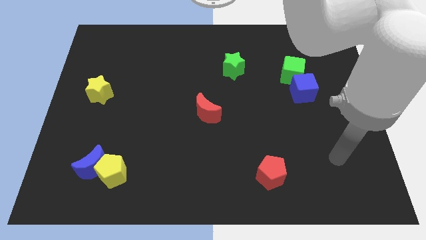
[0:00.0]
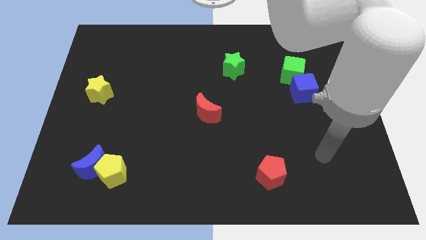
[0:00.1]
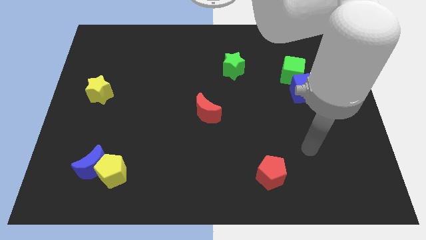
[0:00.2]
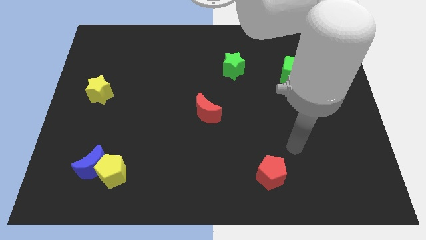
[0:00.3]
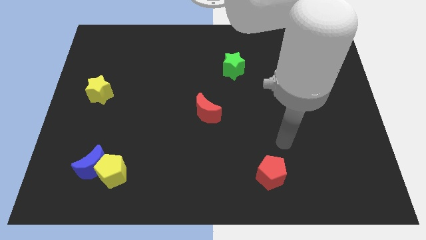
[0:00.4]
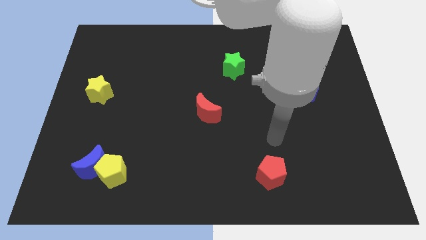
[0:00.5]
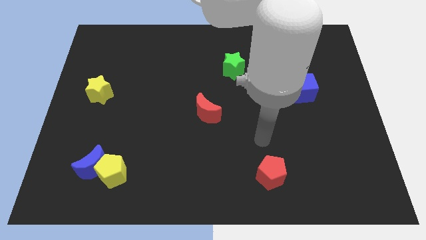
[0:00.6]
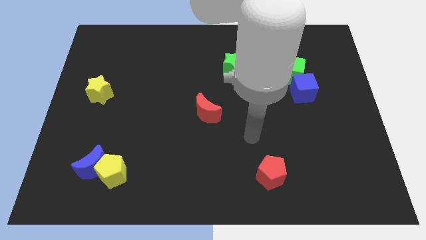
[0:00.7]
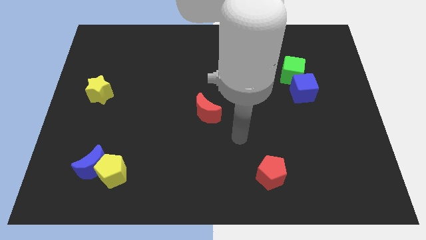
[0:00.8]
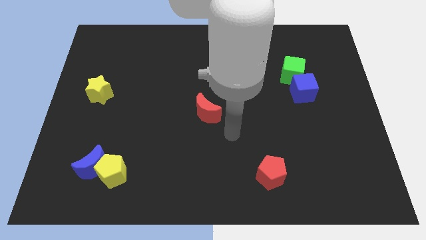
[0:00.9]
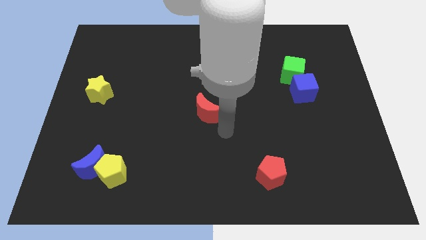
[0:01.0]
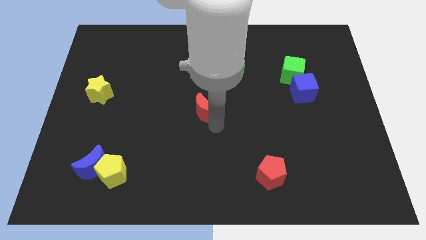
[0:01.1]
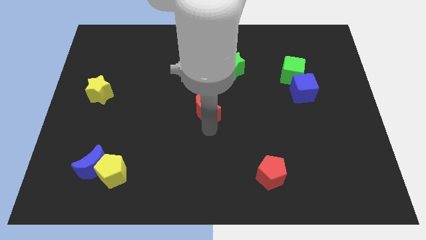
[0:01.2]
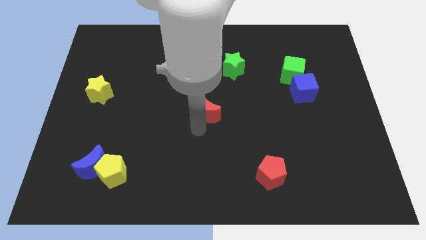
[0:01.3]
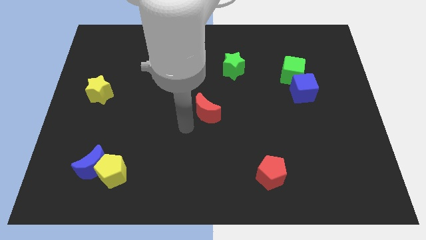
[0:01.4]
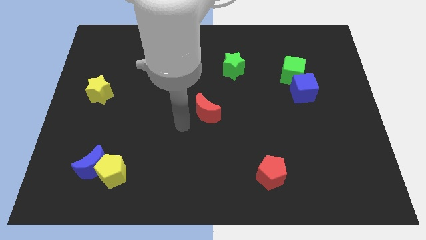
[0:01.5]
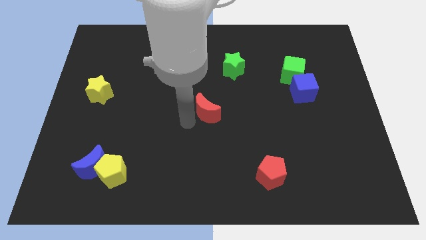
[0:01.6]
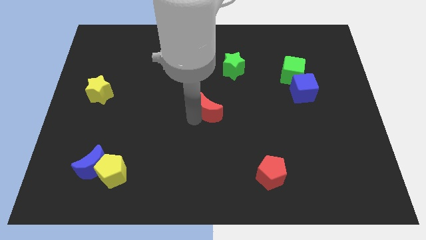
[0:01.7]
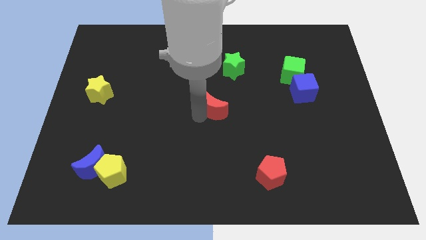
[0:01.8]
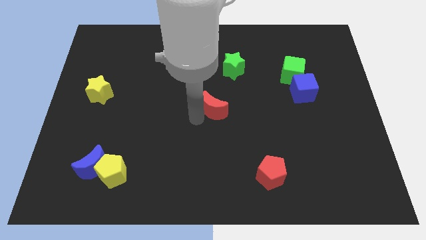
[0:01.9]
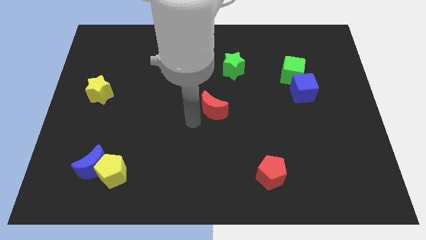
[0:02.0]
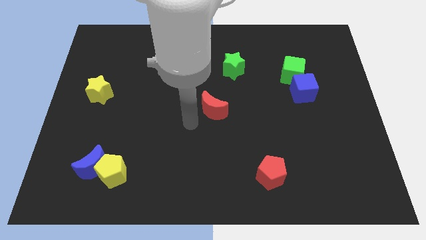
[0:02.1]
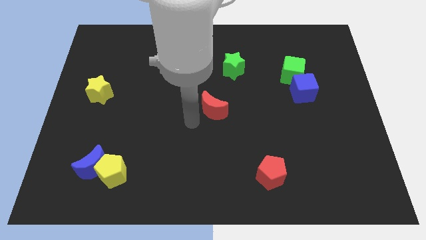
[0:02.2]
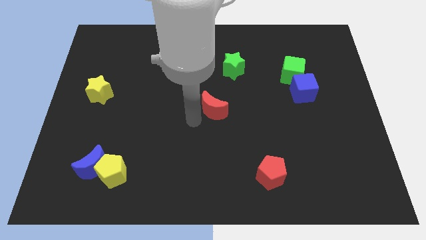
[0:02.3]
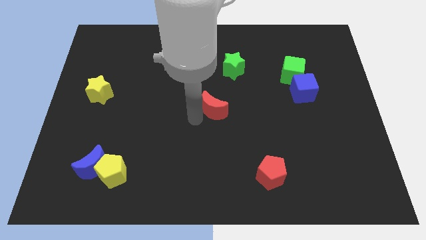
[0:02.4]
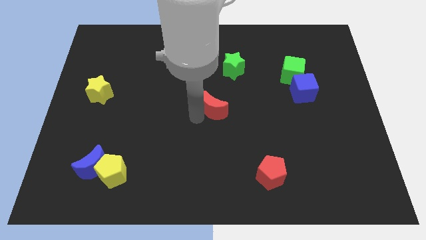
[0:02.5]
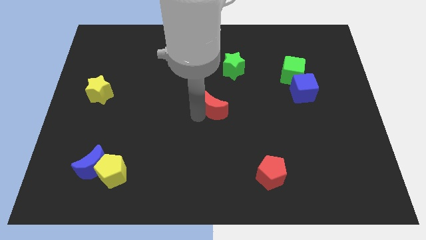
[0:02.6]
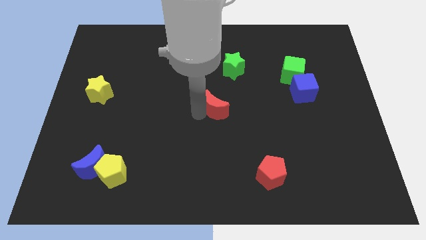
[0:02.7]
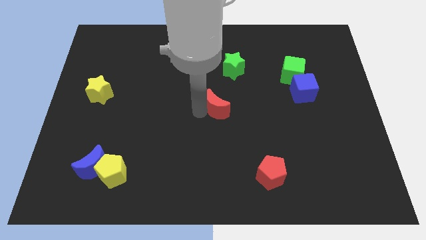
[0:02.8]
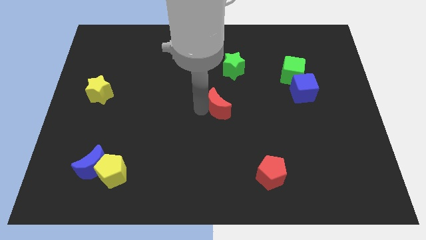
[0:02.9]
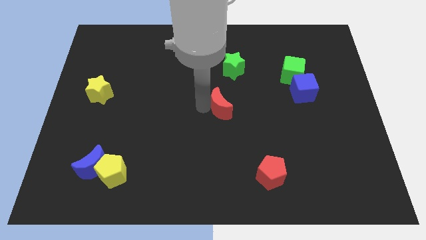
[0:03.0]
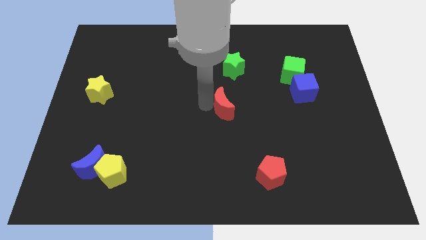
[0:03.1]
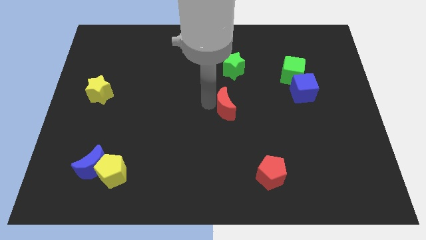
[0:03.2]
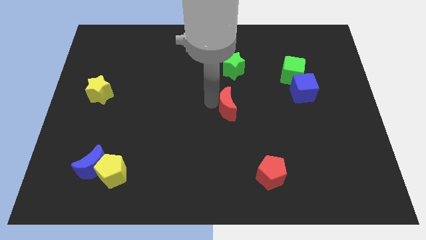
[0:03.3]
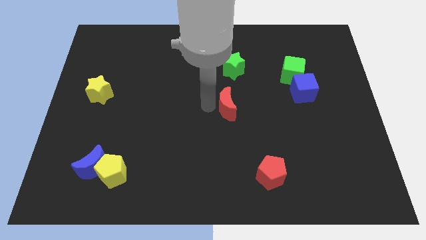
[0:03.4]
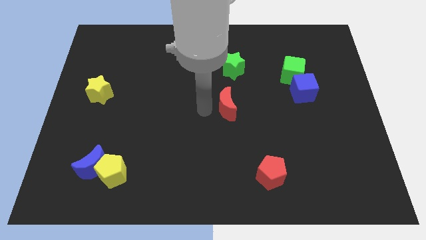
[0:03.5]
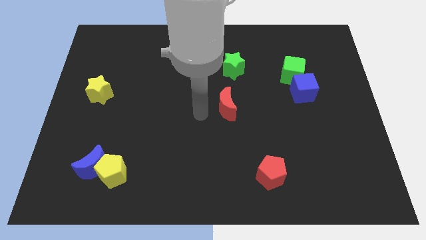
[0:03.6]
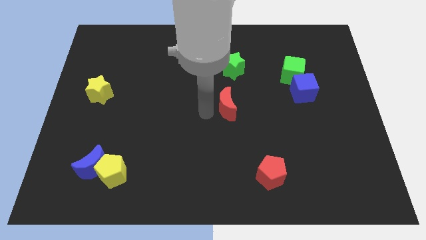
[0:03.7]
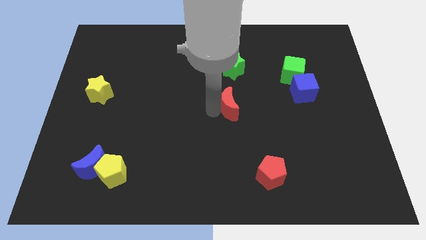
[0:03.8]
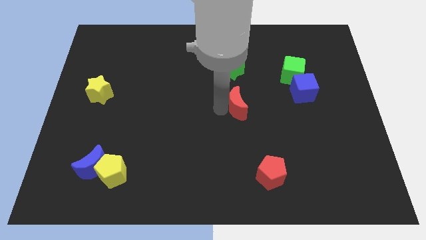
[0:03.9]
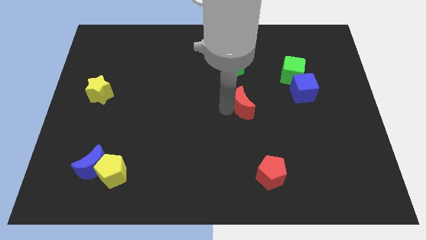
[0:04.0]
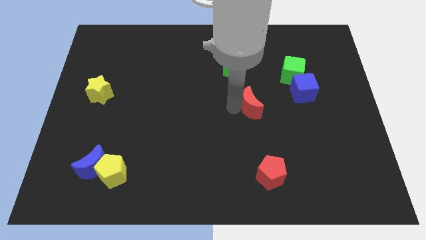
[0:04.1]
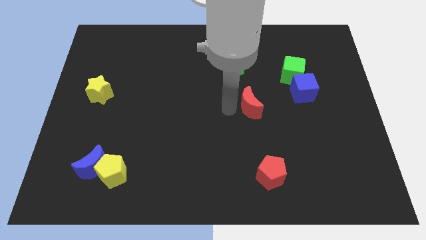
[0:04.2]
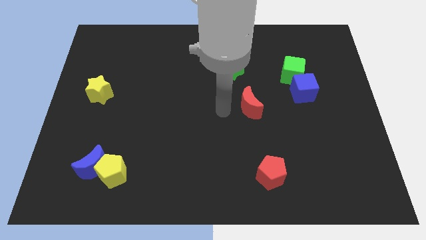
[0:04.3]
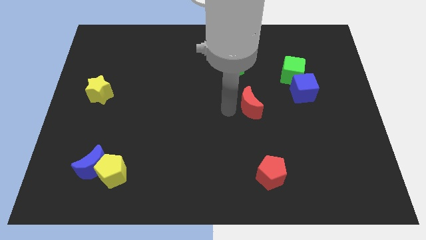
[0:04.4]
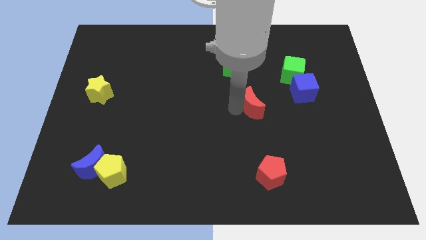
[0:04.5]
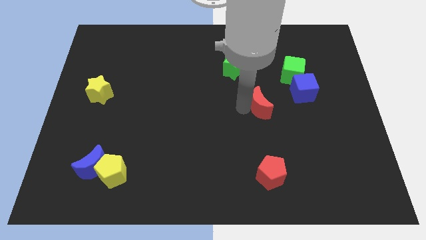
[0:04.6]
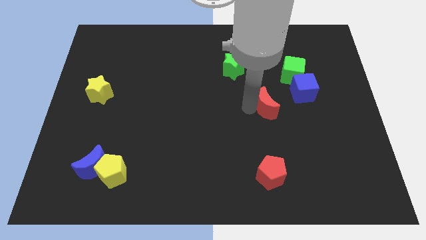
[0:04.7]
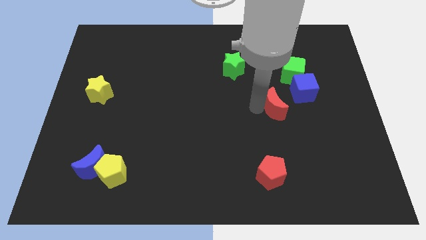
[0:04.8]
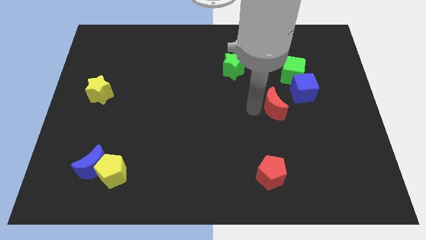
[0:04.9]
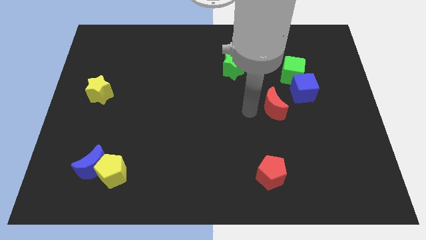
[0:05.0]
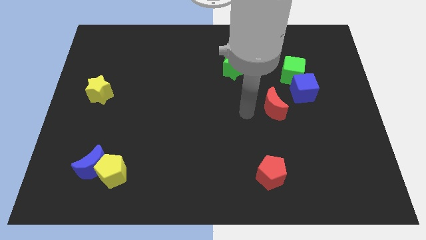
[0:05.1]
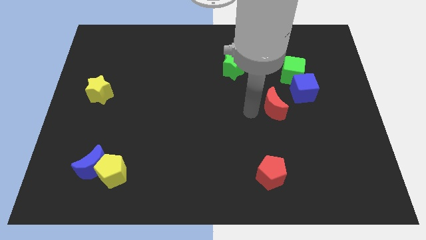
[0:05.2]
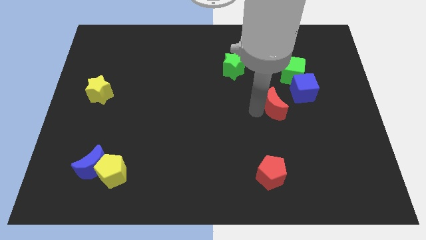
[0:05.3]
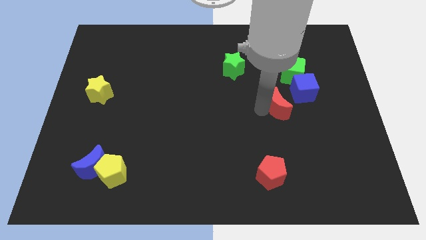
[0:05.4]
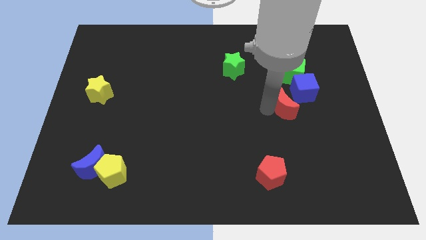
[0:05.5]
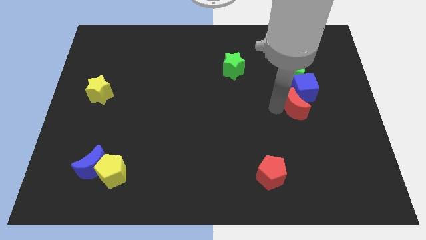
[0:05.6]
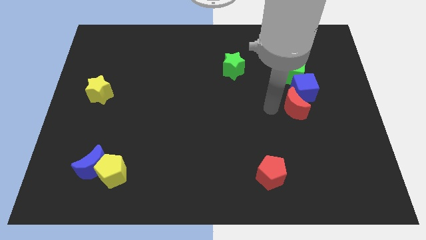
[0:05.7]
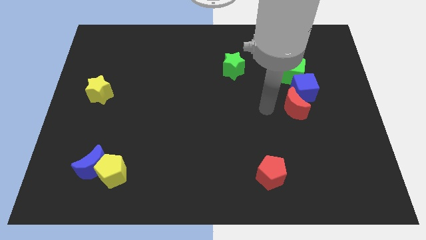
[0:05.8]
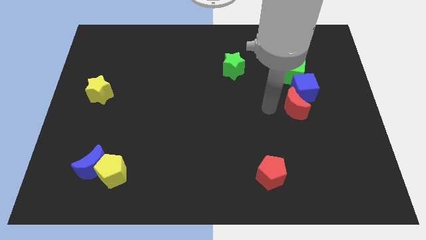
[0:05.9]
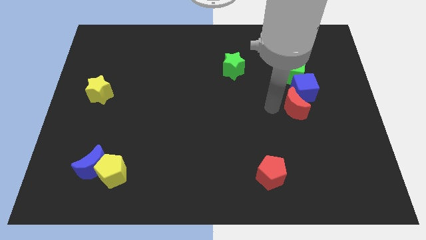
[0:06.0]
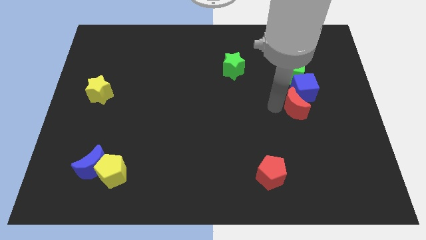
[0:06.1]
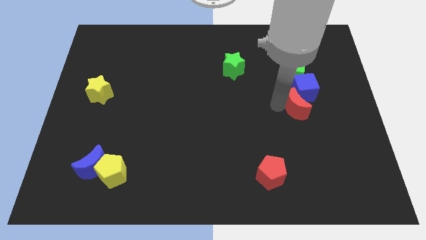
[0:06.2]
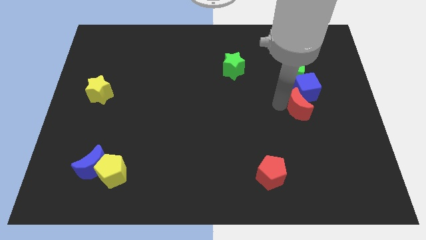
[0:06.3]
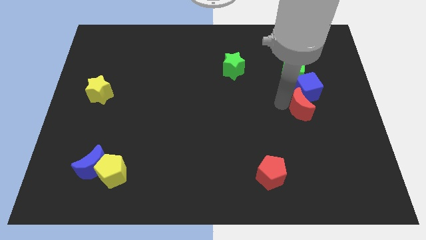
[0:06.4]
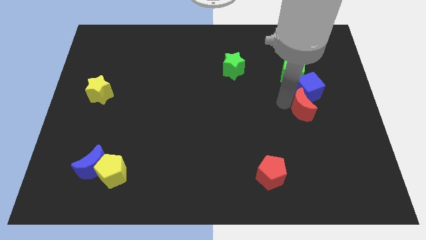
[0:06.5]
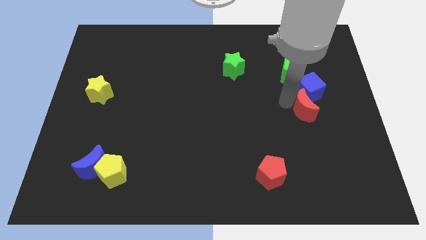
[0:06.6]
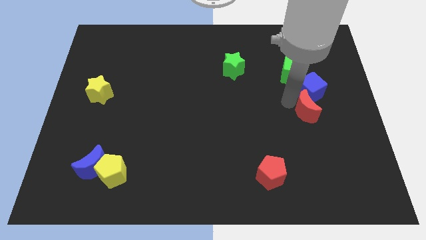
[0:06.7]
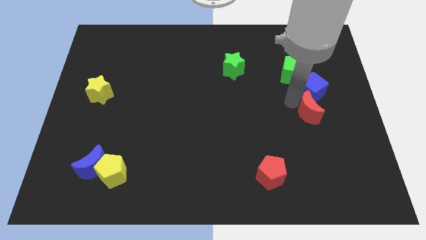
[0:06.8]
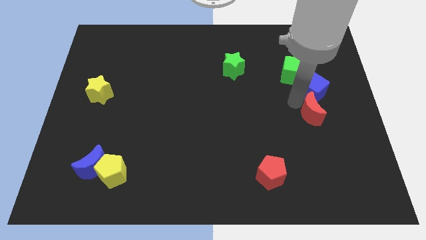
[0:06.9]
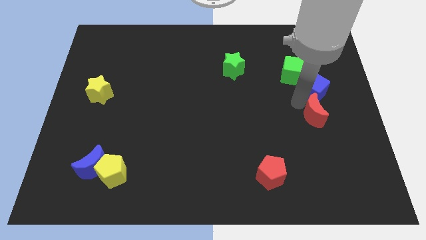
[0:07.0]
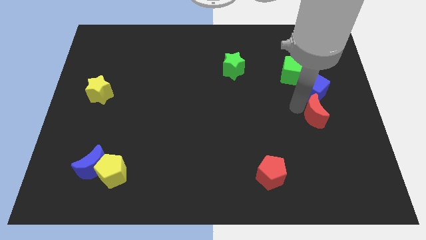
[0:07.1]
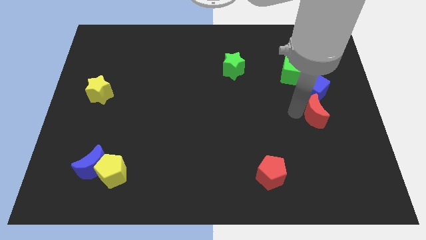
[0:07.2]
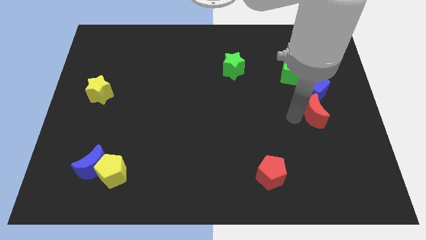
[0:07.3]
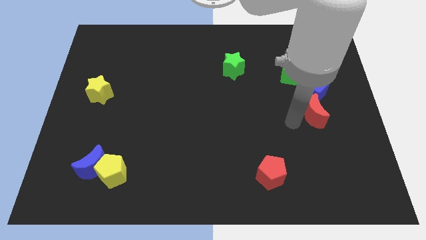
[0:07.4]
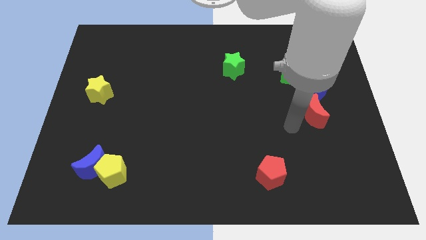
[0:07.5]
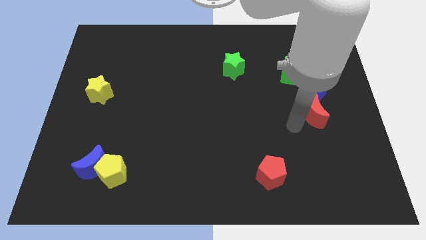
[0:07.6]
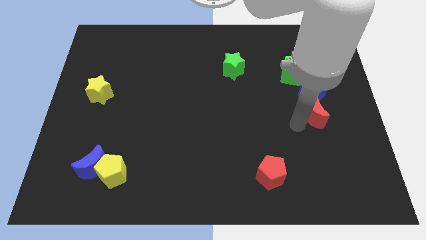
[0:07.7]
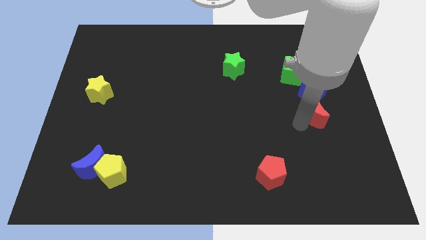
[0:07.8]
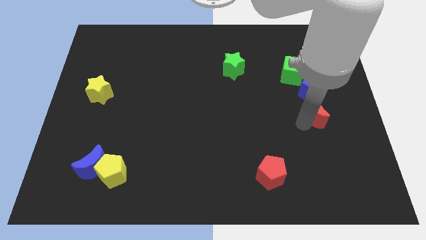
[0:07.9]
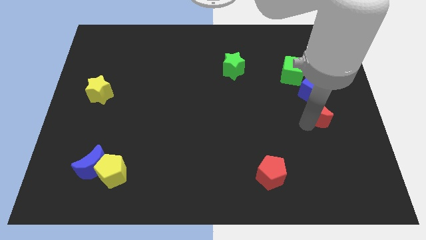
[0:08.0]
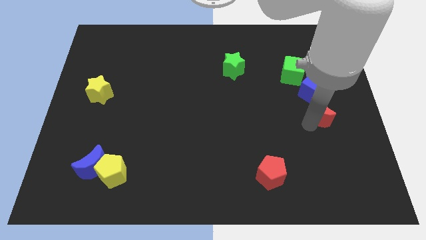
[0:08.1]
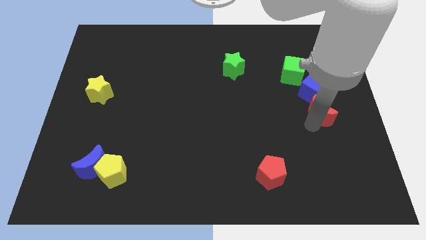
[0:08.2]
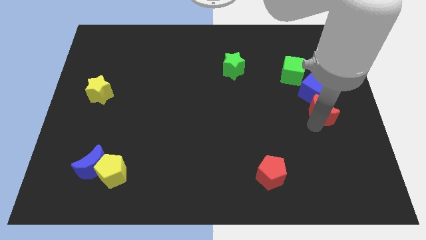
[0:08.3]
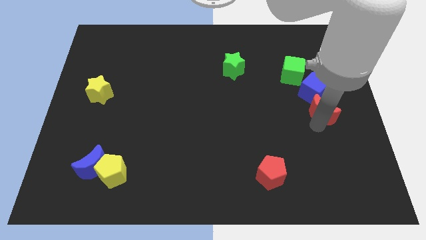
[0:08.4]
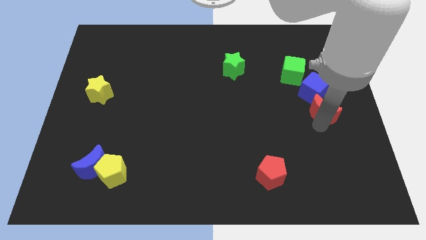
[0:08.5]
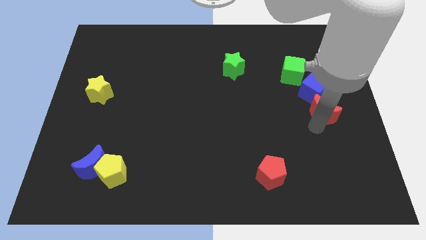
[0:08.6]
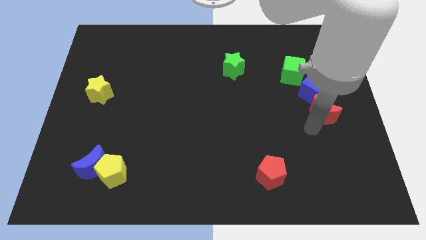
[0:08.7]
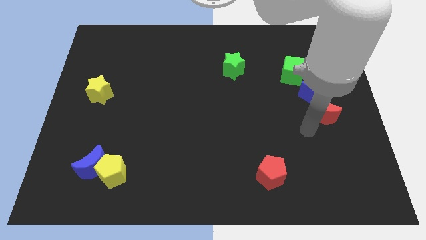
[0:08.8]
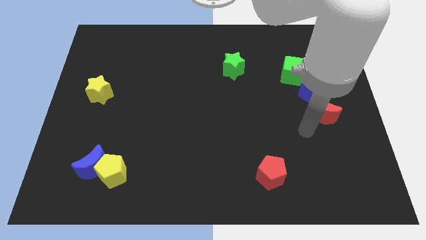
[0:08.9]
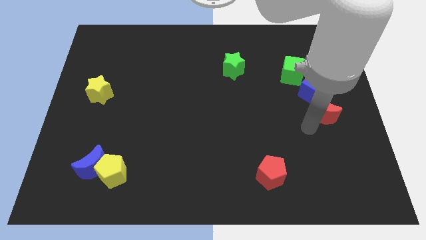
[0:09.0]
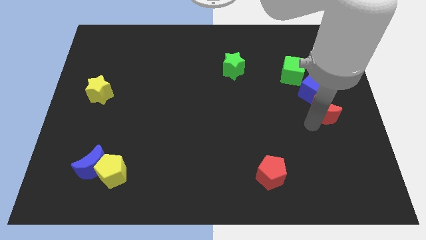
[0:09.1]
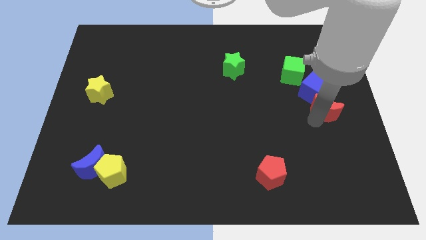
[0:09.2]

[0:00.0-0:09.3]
move the red moon to the right side
